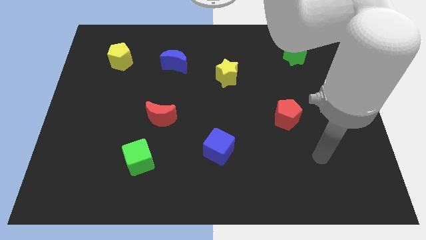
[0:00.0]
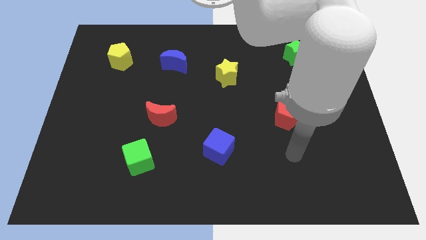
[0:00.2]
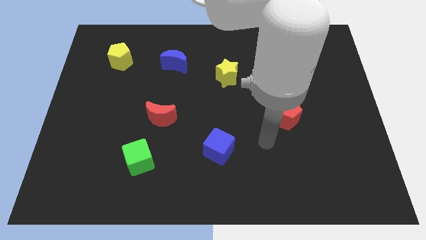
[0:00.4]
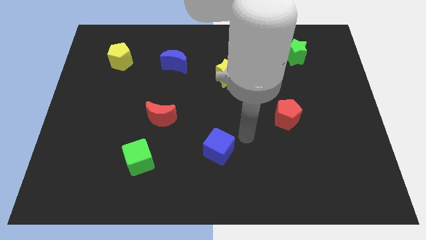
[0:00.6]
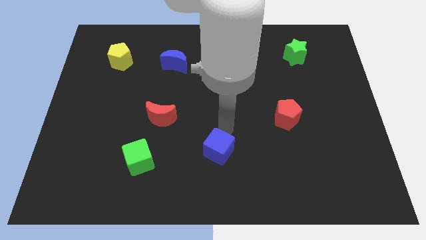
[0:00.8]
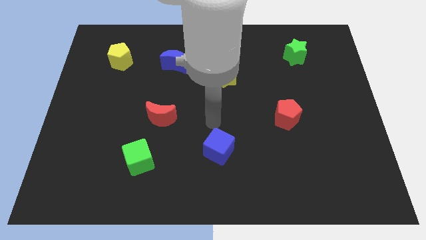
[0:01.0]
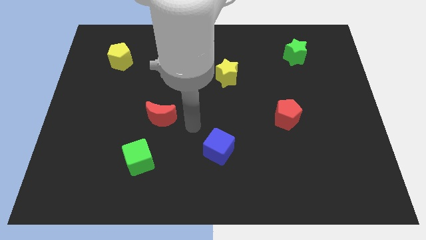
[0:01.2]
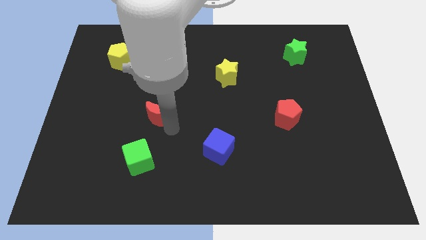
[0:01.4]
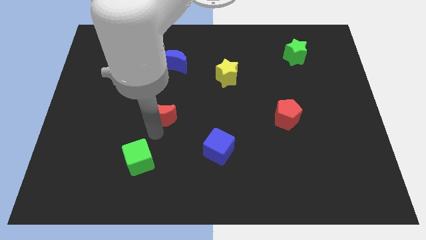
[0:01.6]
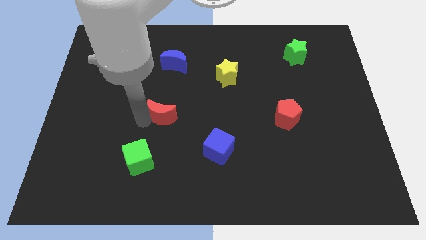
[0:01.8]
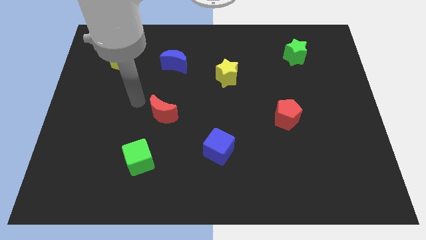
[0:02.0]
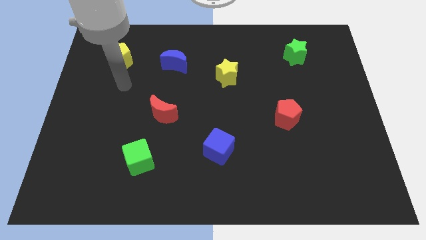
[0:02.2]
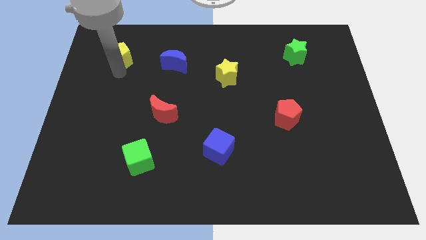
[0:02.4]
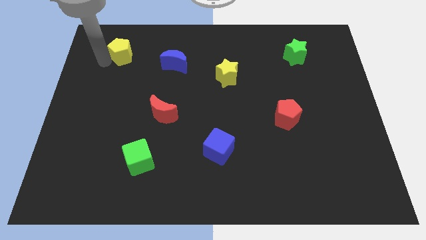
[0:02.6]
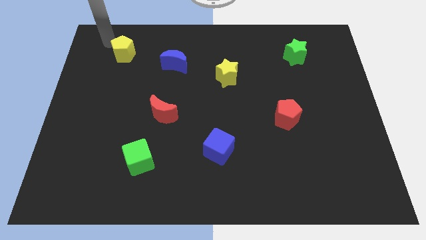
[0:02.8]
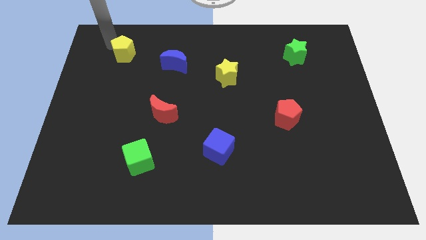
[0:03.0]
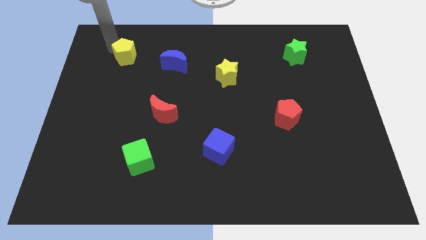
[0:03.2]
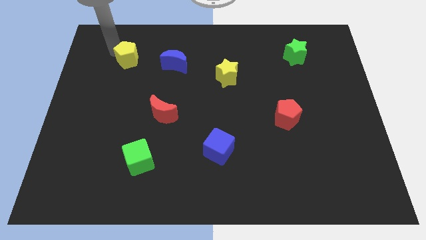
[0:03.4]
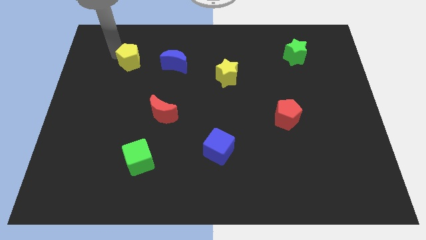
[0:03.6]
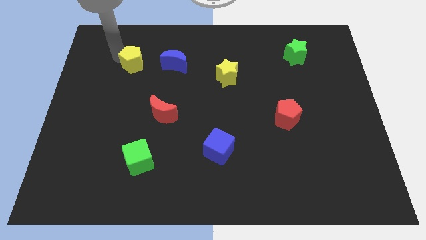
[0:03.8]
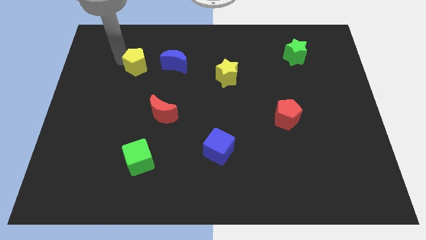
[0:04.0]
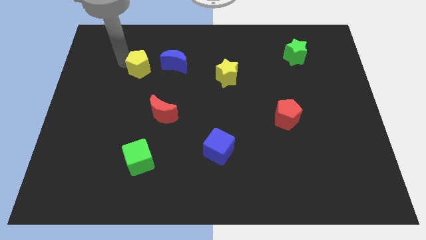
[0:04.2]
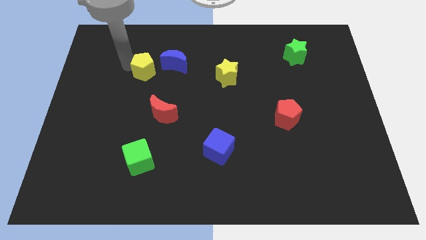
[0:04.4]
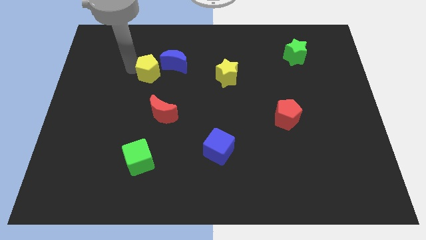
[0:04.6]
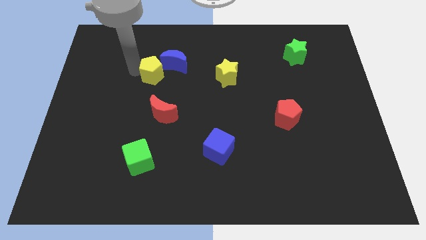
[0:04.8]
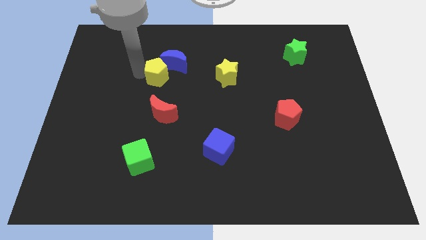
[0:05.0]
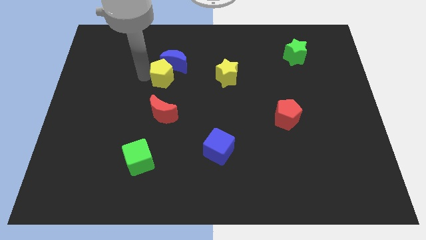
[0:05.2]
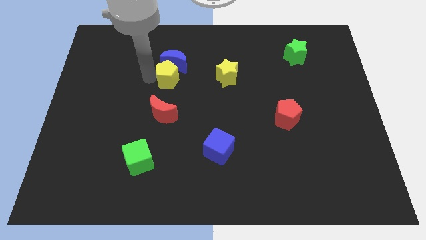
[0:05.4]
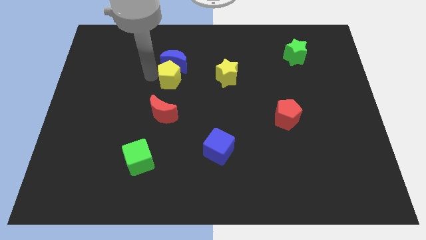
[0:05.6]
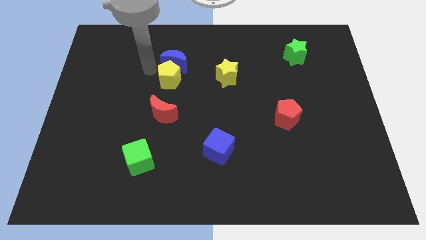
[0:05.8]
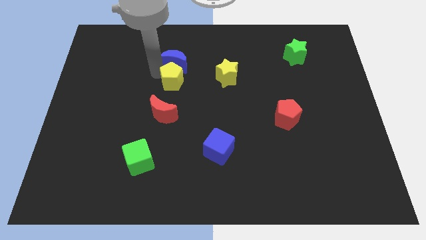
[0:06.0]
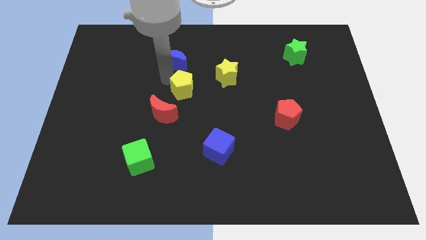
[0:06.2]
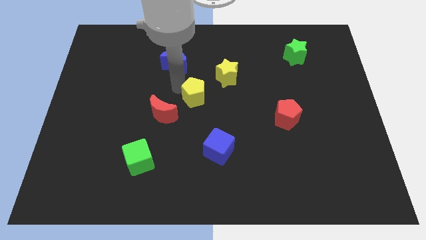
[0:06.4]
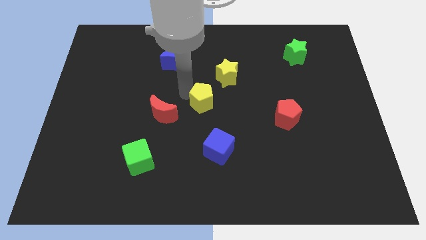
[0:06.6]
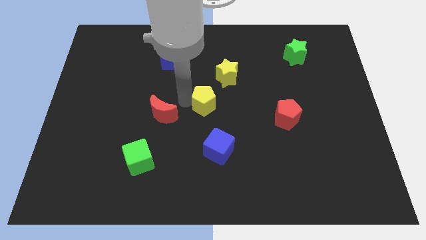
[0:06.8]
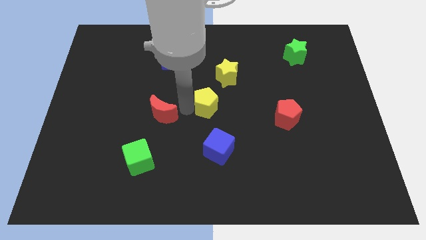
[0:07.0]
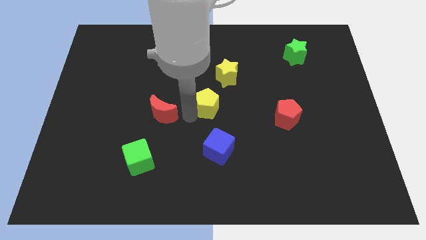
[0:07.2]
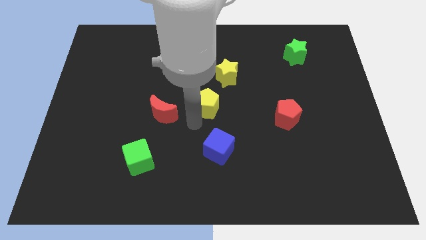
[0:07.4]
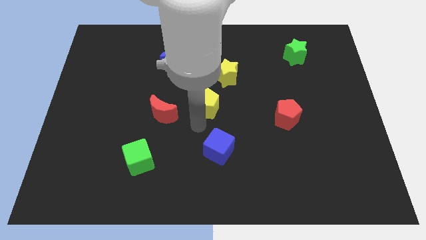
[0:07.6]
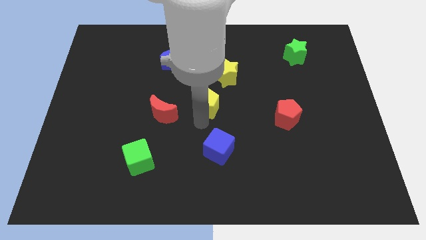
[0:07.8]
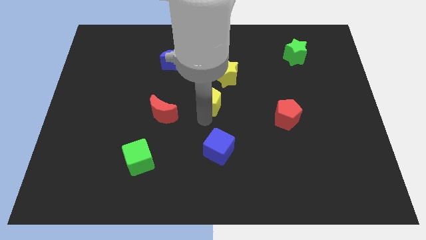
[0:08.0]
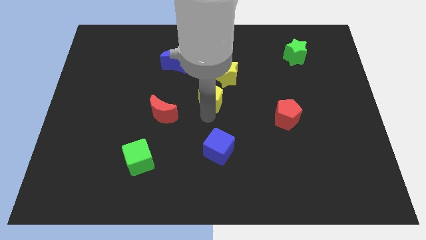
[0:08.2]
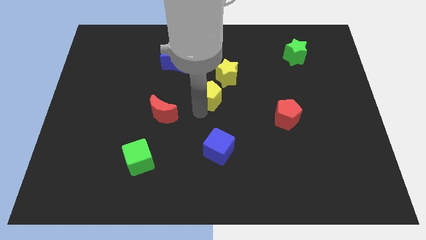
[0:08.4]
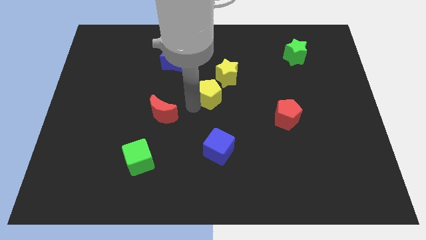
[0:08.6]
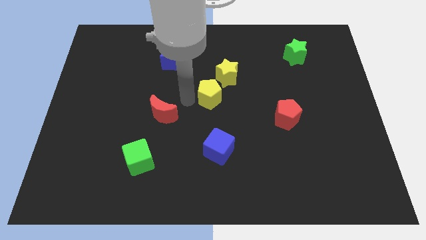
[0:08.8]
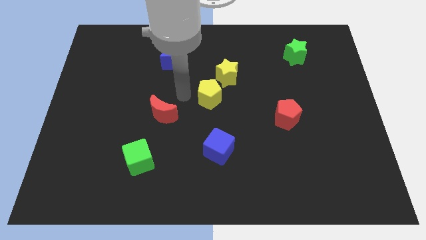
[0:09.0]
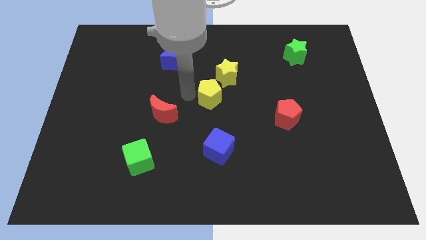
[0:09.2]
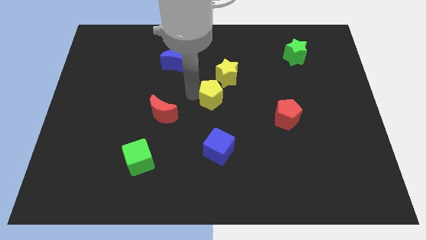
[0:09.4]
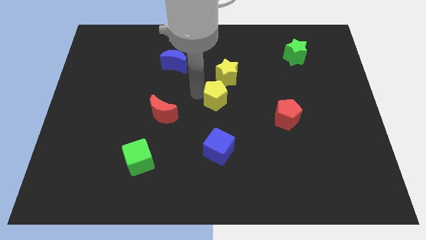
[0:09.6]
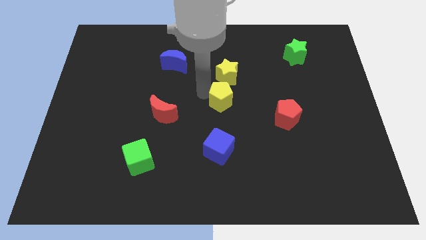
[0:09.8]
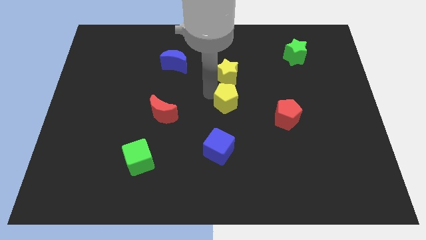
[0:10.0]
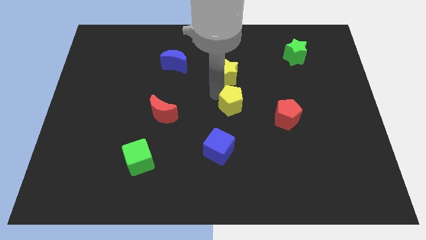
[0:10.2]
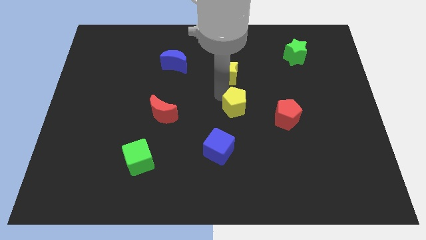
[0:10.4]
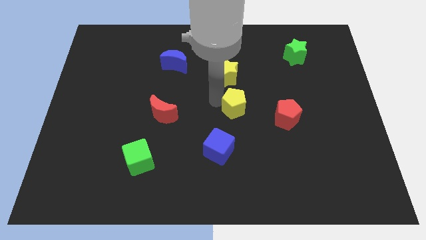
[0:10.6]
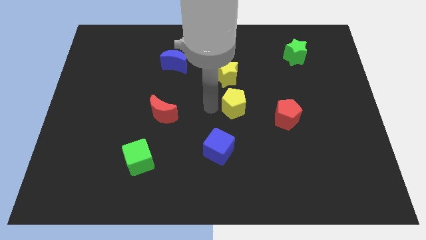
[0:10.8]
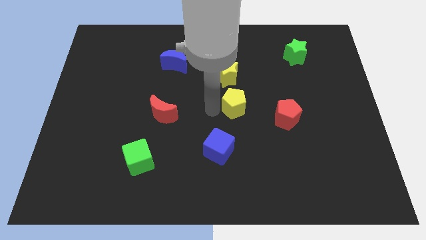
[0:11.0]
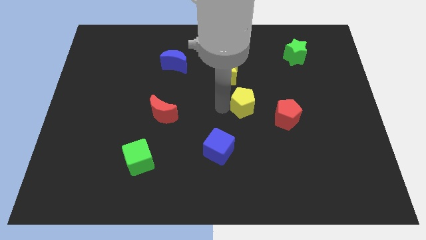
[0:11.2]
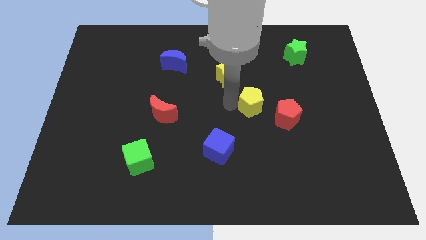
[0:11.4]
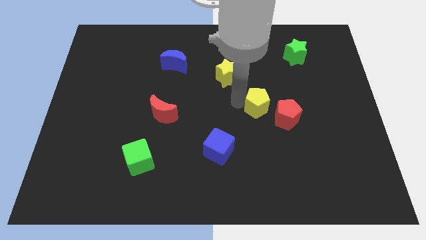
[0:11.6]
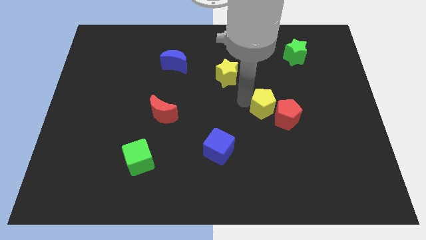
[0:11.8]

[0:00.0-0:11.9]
push the yellow pentagon next to the red pentagon

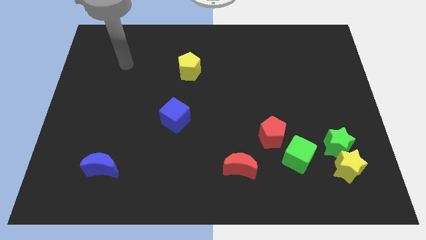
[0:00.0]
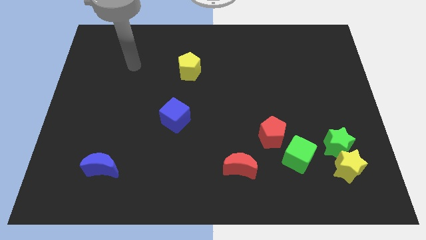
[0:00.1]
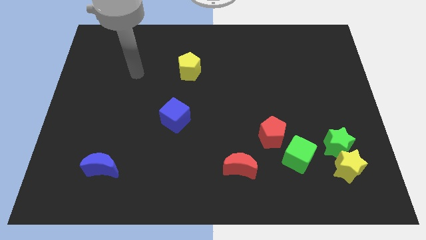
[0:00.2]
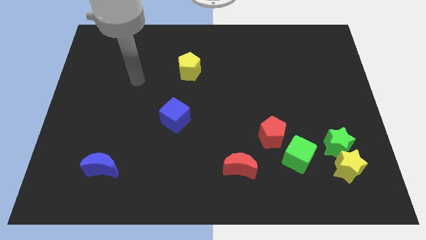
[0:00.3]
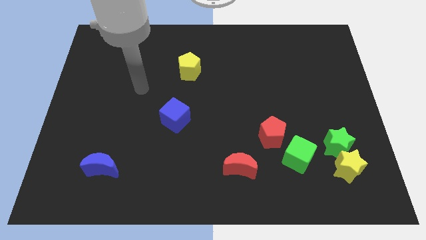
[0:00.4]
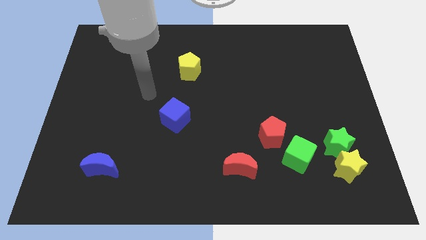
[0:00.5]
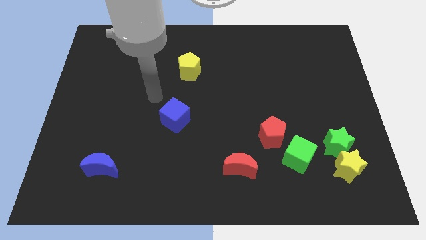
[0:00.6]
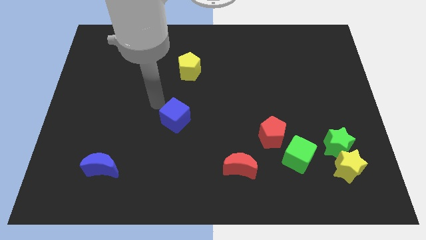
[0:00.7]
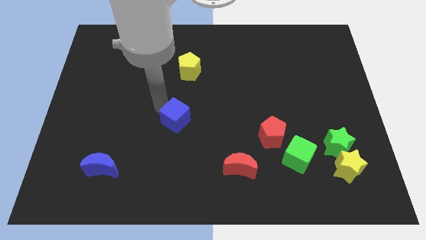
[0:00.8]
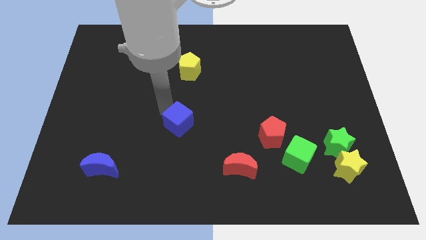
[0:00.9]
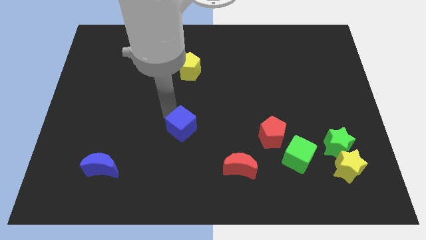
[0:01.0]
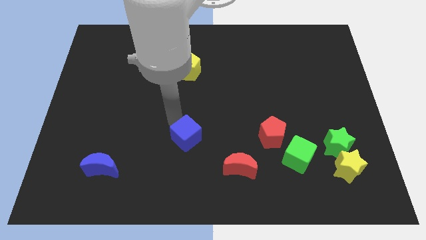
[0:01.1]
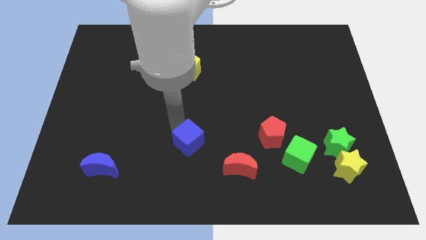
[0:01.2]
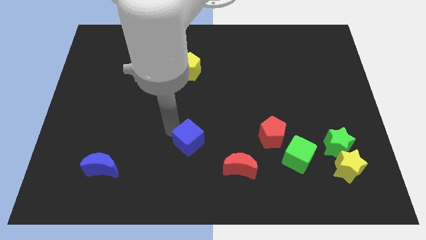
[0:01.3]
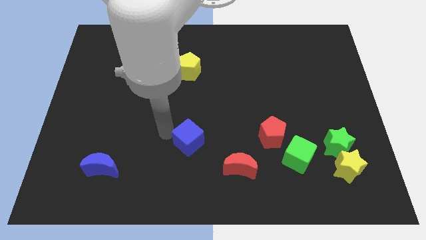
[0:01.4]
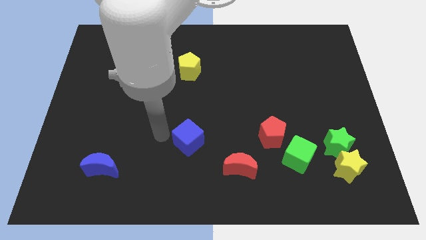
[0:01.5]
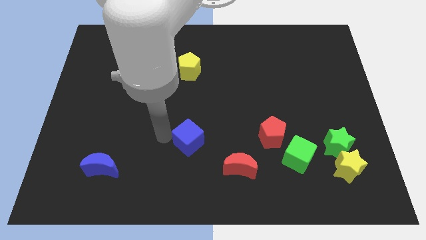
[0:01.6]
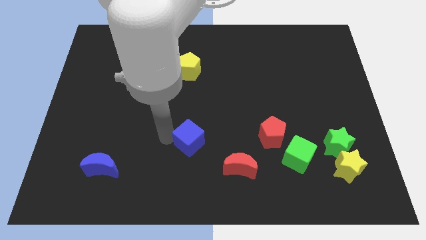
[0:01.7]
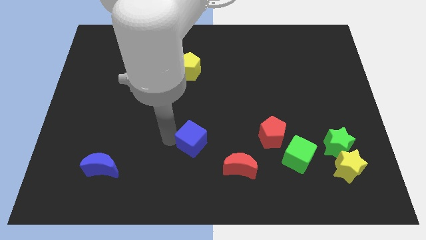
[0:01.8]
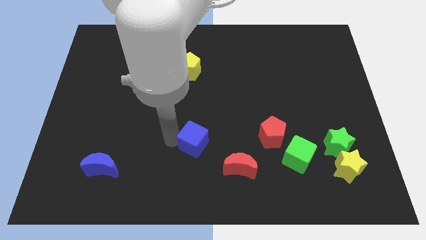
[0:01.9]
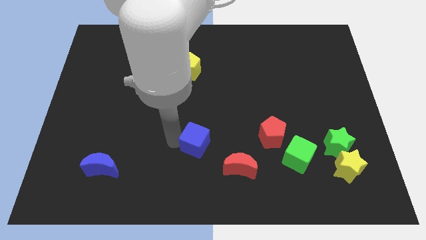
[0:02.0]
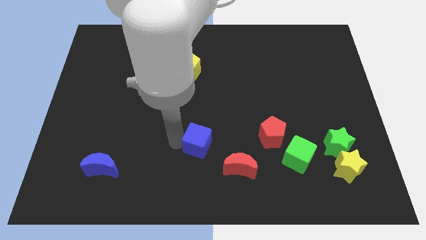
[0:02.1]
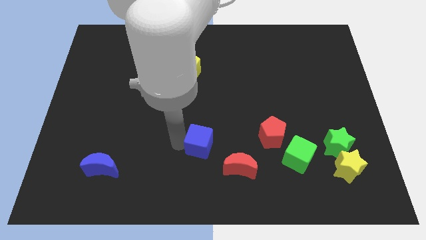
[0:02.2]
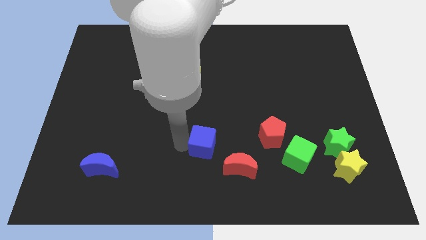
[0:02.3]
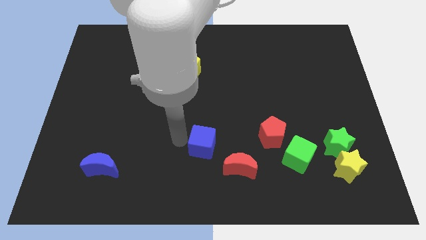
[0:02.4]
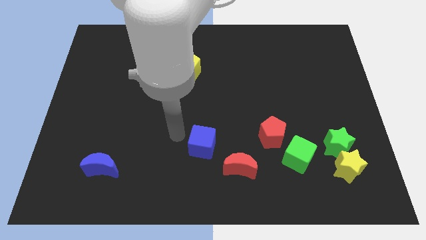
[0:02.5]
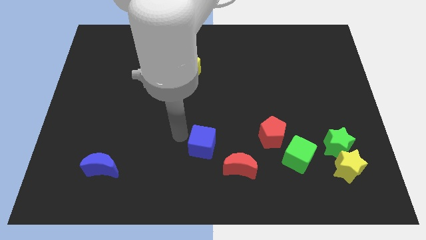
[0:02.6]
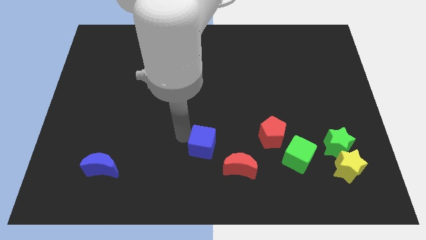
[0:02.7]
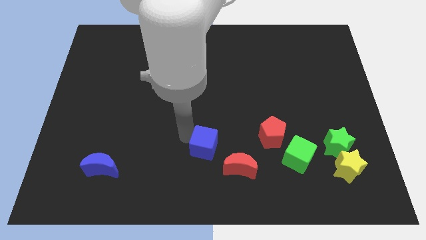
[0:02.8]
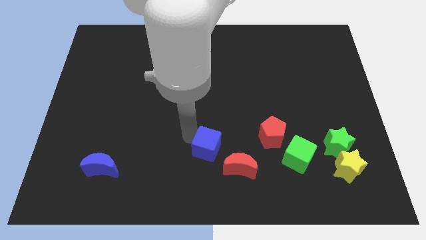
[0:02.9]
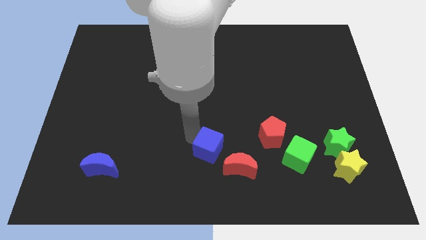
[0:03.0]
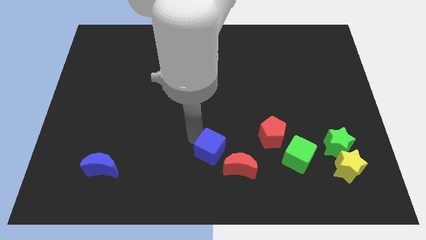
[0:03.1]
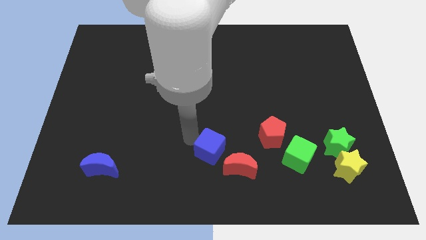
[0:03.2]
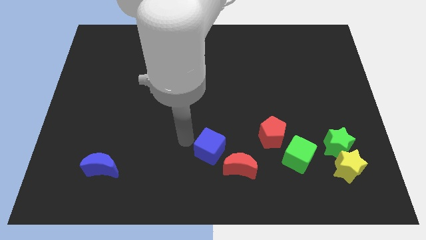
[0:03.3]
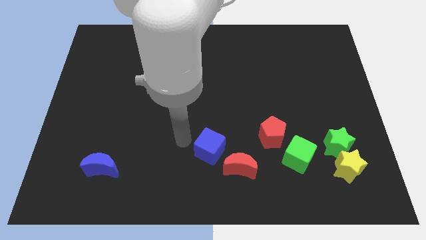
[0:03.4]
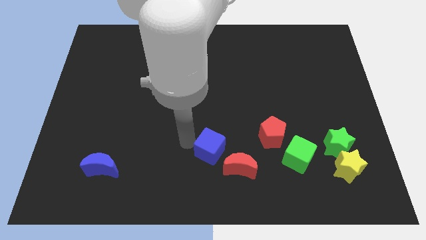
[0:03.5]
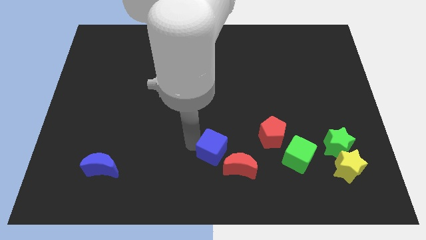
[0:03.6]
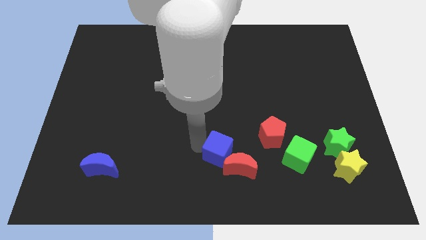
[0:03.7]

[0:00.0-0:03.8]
move the blue cube next to the red moon
